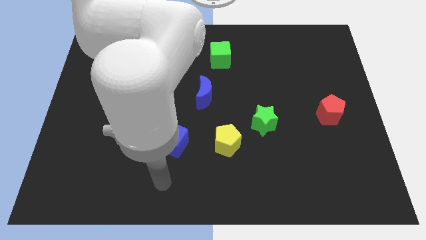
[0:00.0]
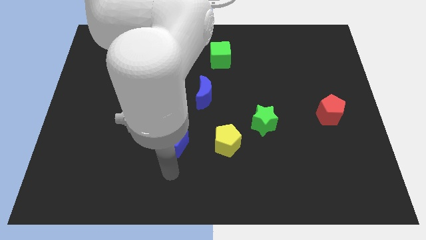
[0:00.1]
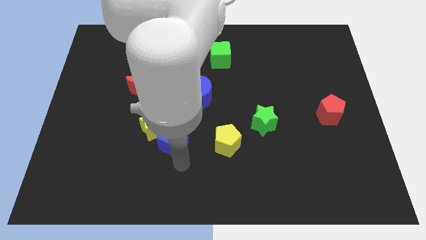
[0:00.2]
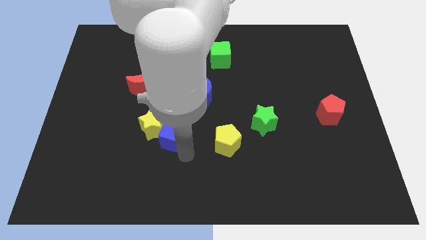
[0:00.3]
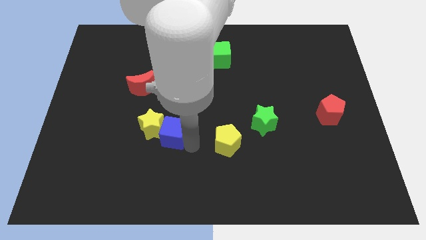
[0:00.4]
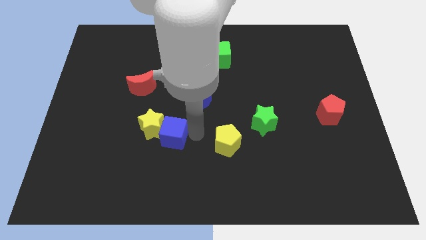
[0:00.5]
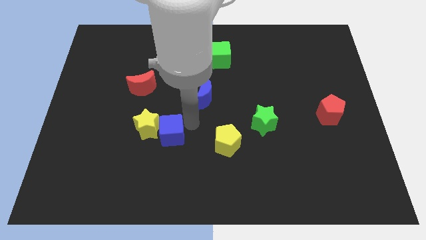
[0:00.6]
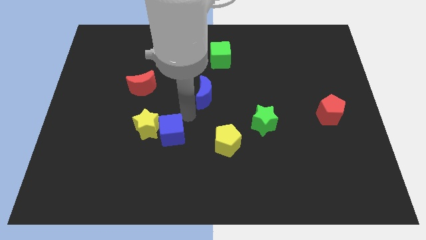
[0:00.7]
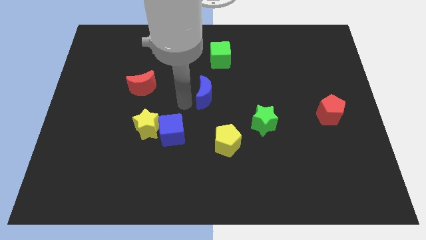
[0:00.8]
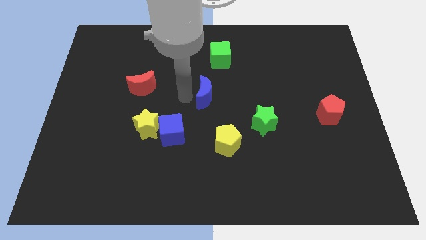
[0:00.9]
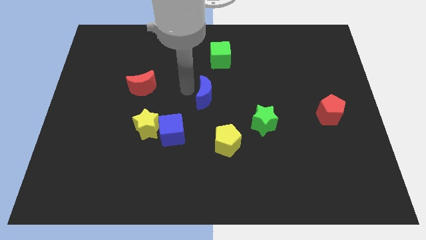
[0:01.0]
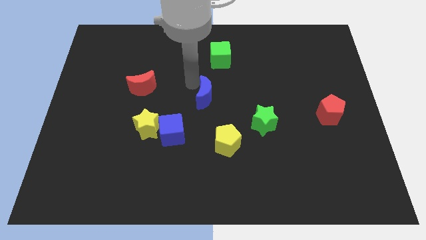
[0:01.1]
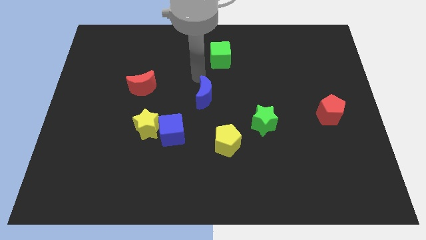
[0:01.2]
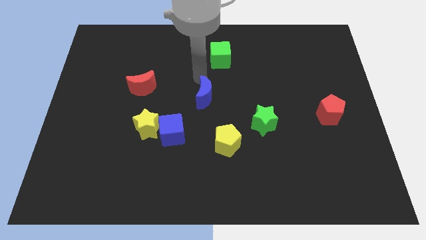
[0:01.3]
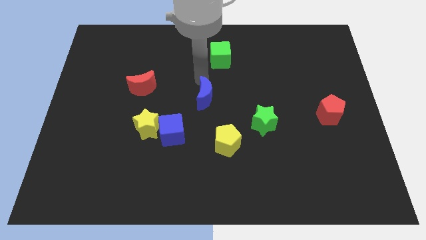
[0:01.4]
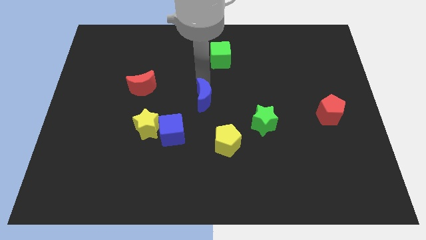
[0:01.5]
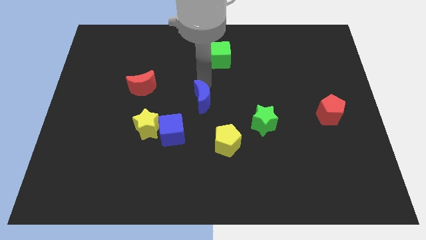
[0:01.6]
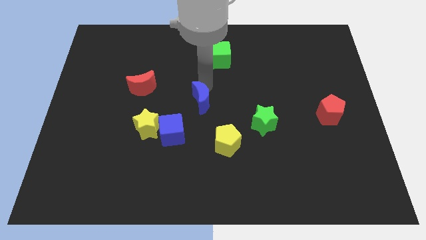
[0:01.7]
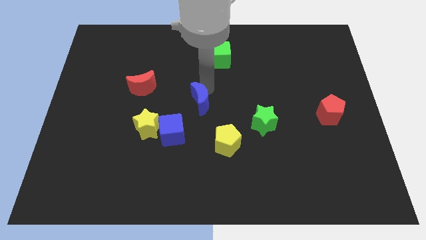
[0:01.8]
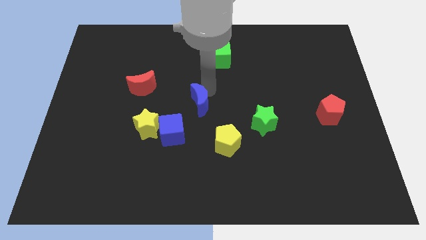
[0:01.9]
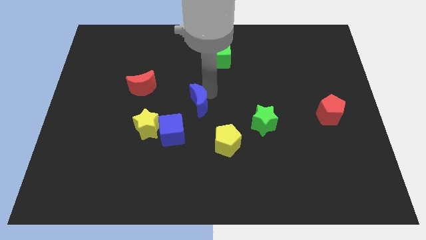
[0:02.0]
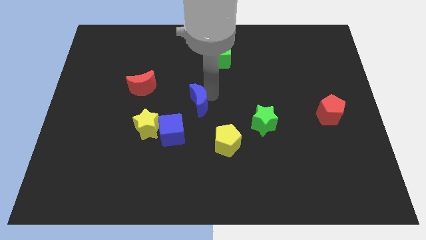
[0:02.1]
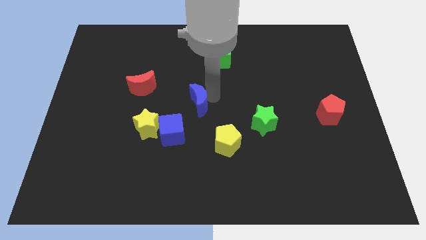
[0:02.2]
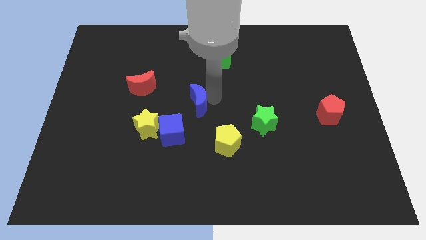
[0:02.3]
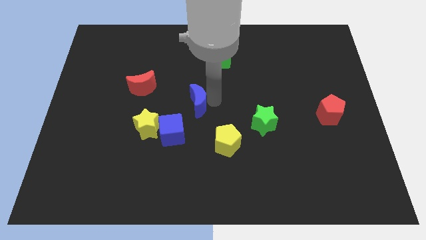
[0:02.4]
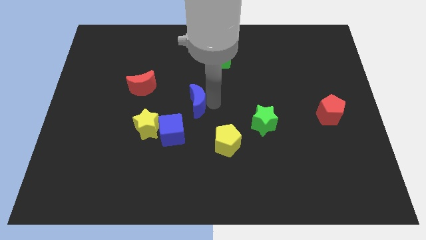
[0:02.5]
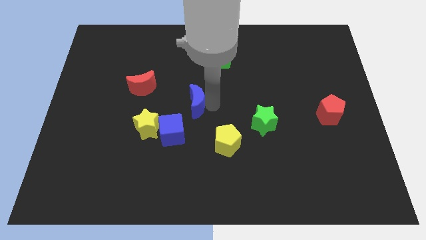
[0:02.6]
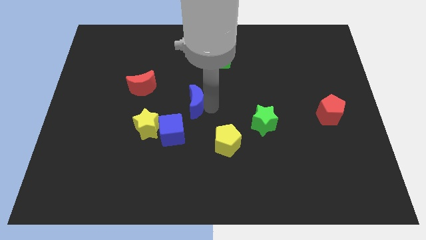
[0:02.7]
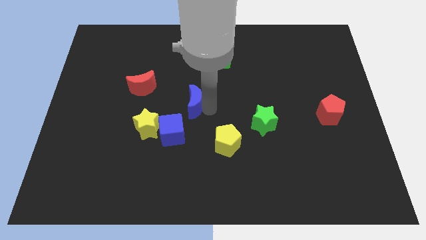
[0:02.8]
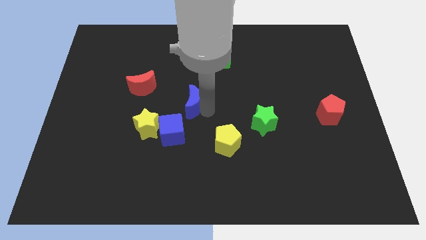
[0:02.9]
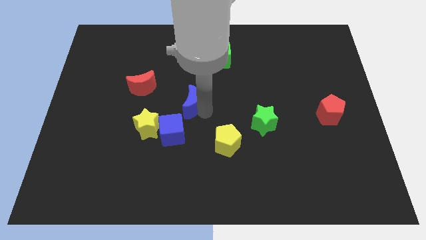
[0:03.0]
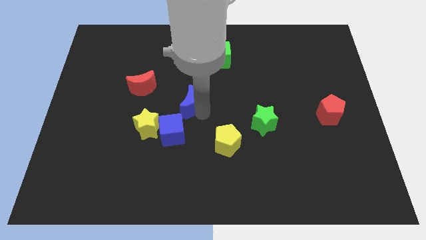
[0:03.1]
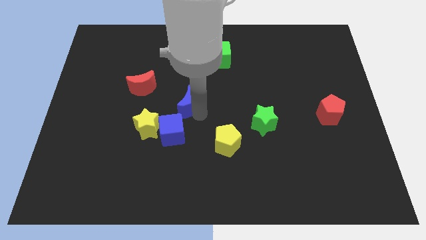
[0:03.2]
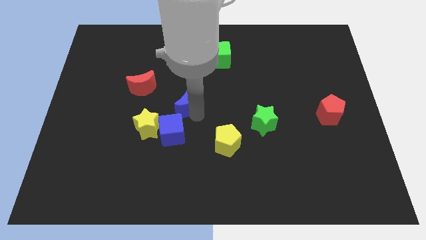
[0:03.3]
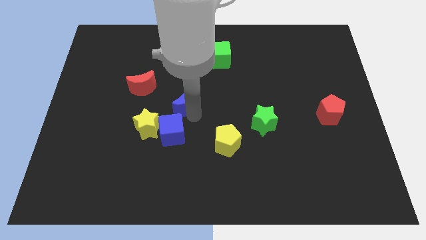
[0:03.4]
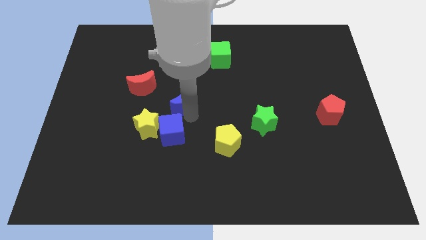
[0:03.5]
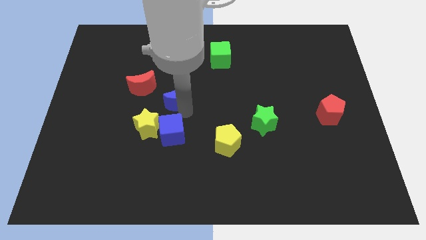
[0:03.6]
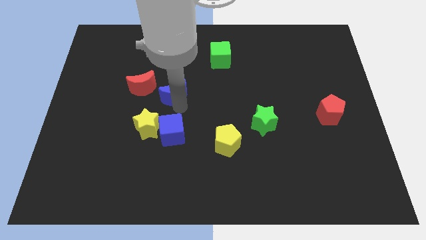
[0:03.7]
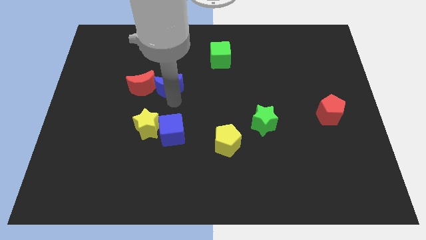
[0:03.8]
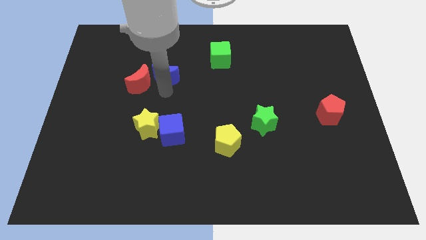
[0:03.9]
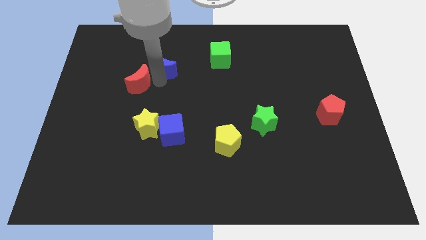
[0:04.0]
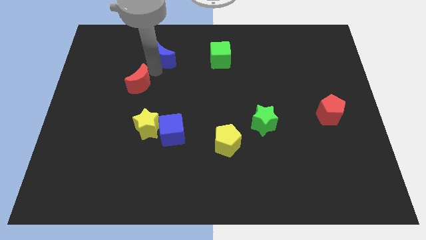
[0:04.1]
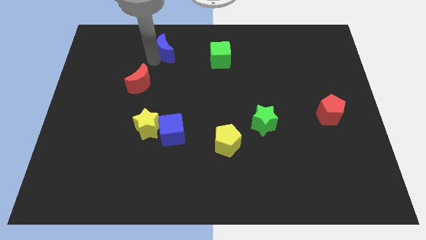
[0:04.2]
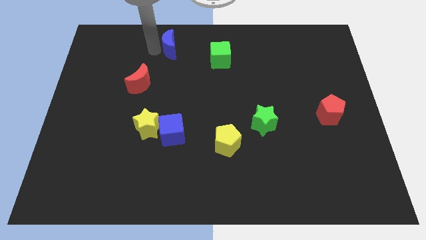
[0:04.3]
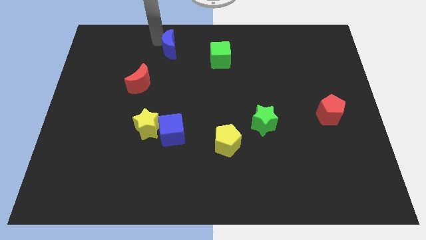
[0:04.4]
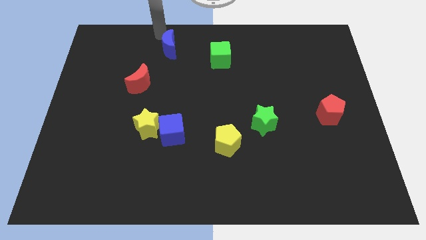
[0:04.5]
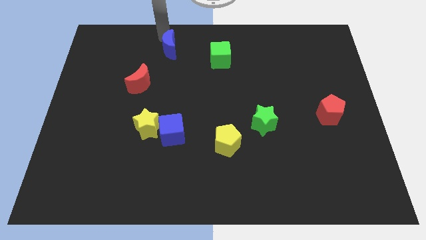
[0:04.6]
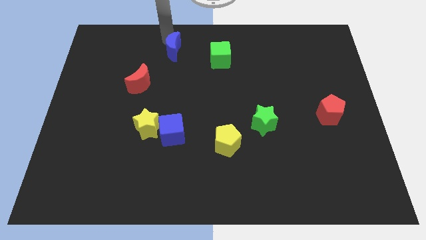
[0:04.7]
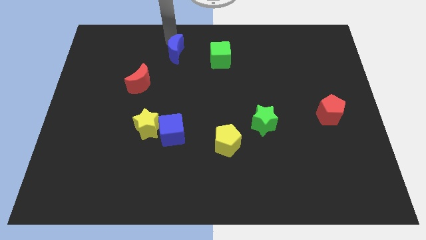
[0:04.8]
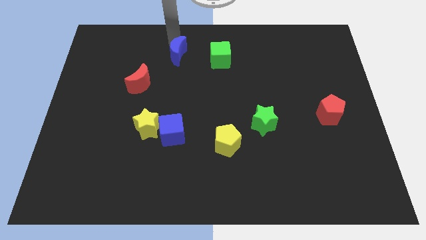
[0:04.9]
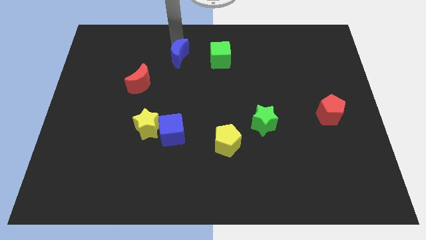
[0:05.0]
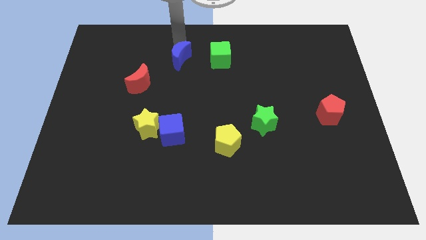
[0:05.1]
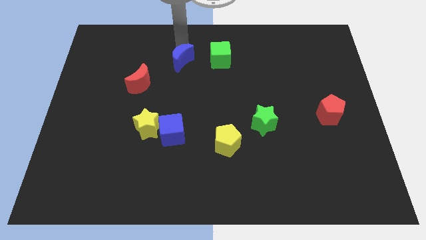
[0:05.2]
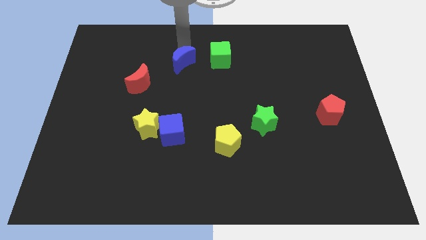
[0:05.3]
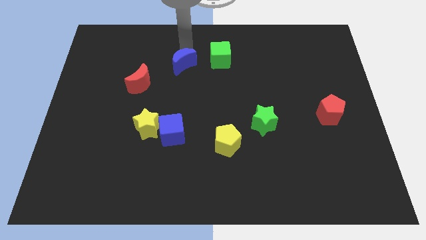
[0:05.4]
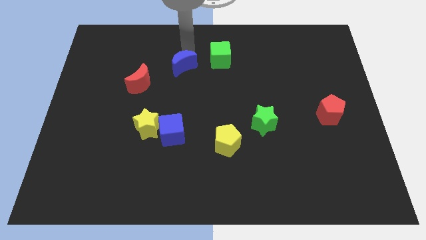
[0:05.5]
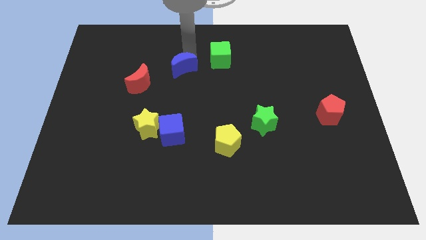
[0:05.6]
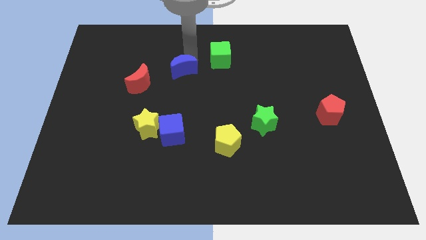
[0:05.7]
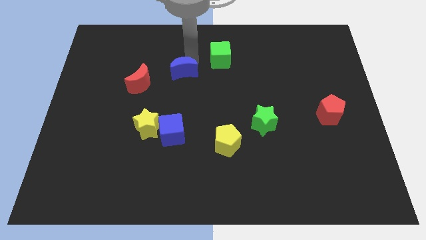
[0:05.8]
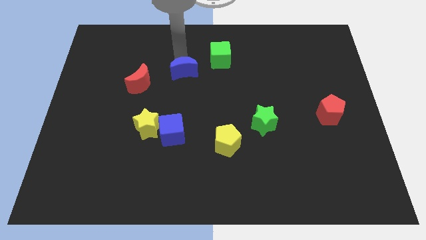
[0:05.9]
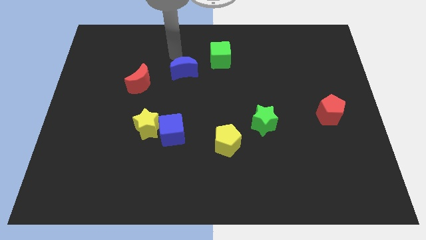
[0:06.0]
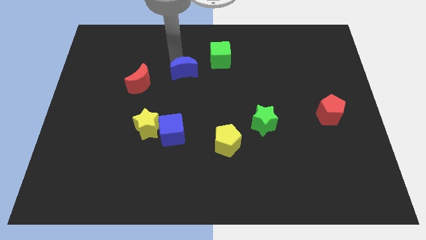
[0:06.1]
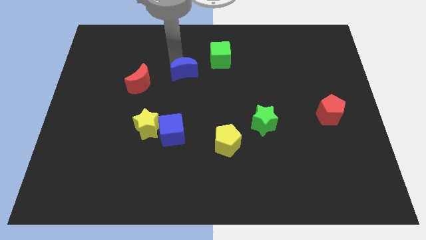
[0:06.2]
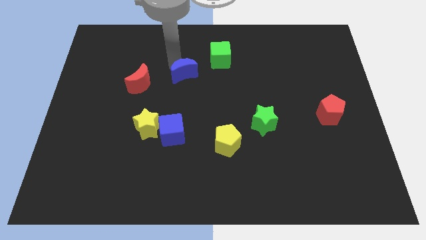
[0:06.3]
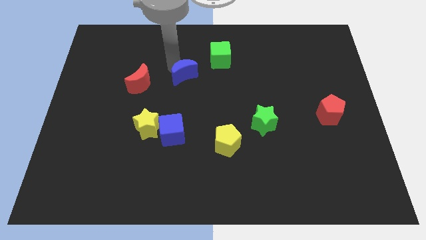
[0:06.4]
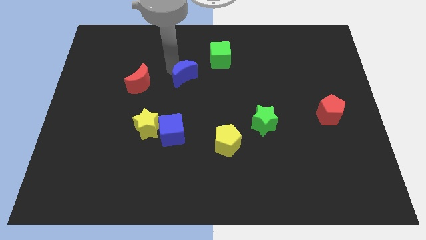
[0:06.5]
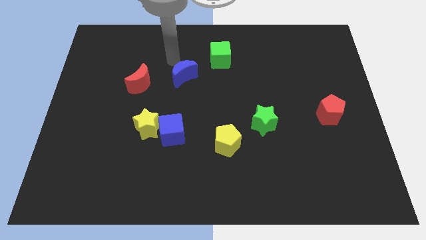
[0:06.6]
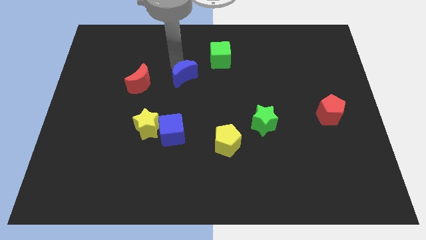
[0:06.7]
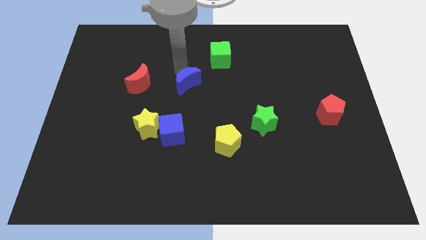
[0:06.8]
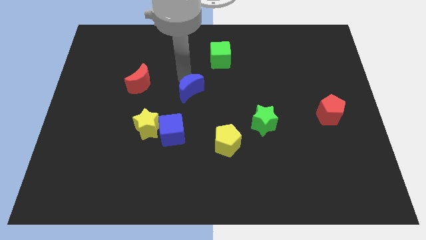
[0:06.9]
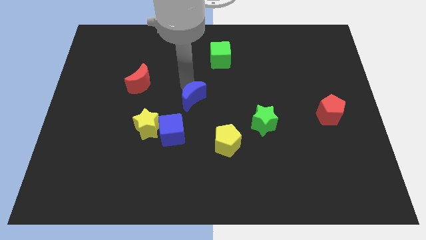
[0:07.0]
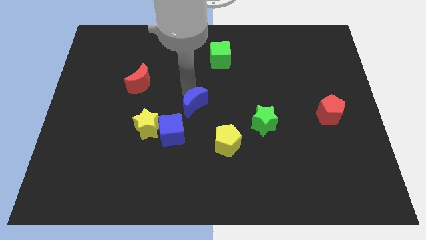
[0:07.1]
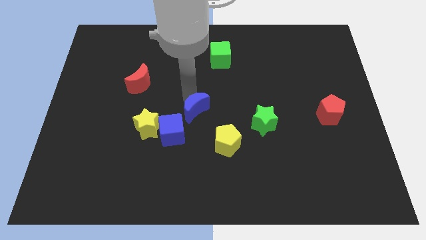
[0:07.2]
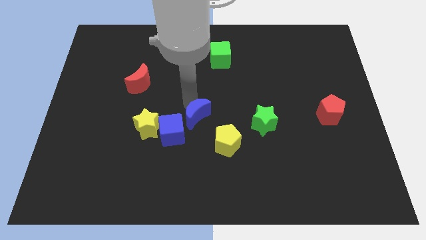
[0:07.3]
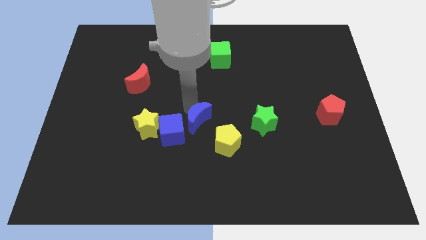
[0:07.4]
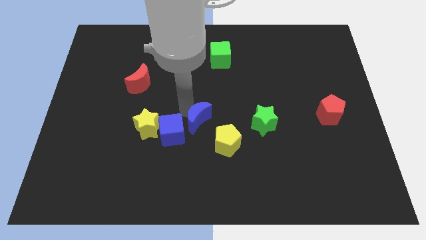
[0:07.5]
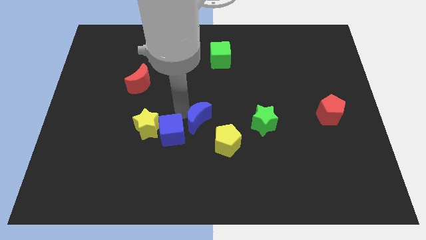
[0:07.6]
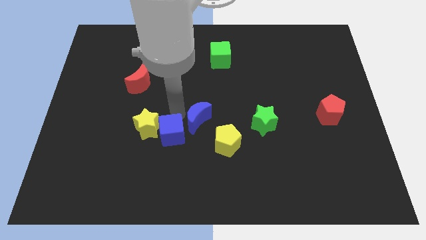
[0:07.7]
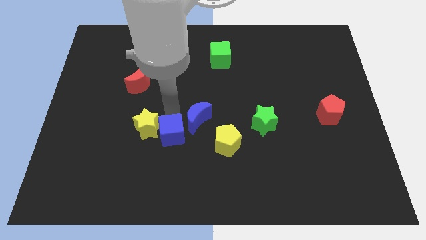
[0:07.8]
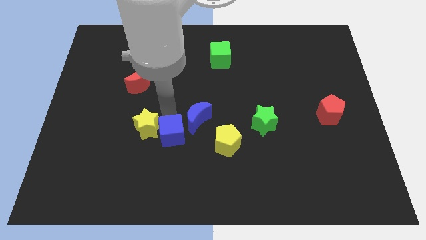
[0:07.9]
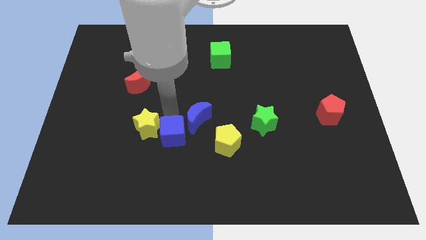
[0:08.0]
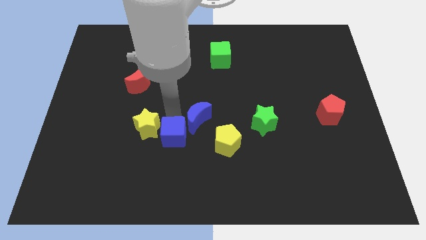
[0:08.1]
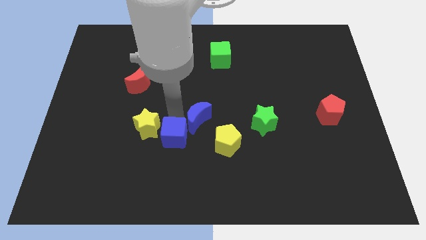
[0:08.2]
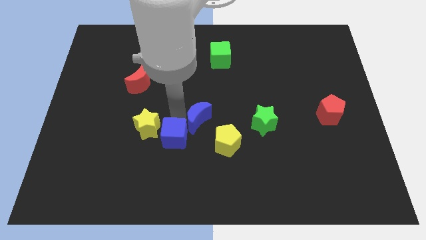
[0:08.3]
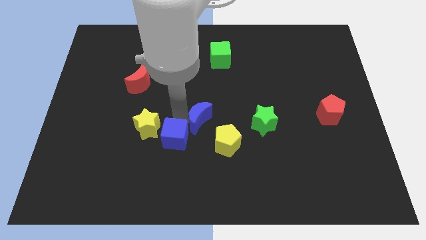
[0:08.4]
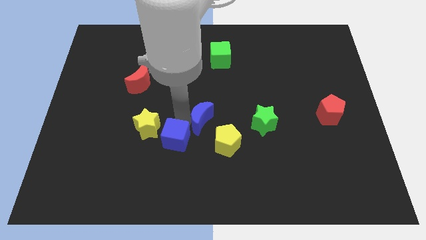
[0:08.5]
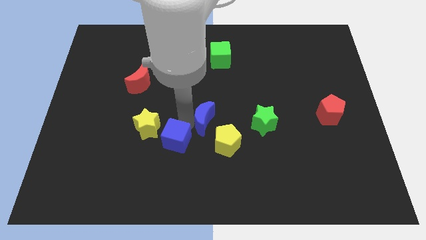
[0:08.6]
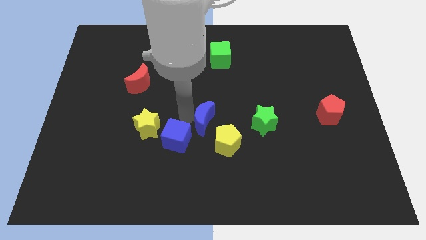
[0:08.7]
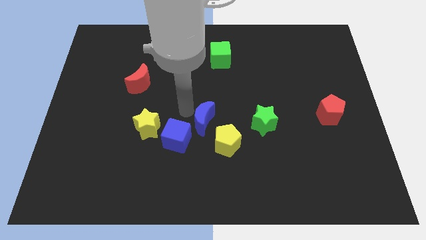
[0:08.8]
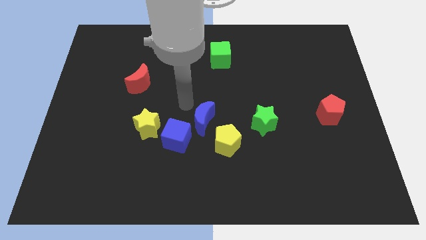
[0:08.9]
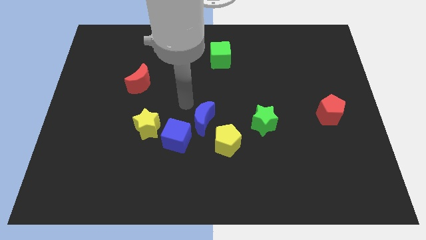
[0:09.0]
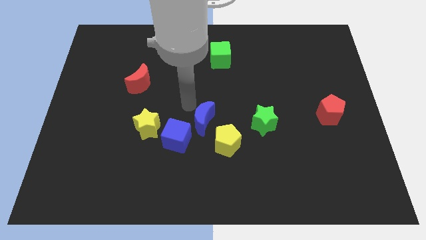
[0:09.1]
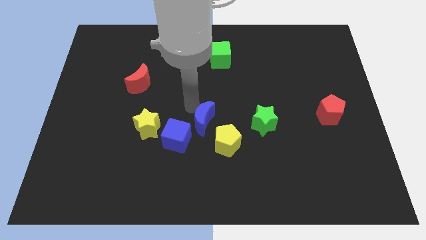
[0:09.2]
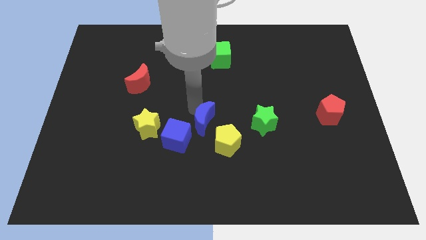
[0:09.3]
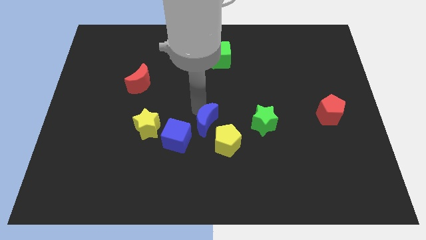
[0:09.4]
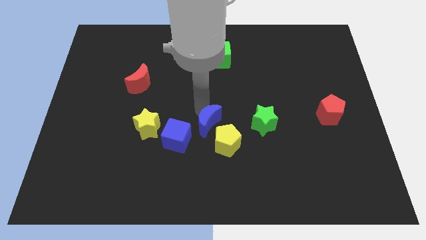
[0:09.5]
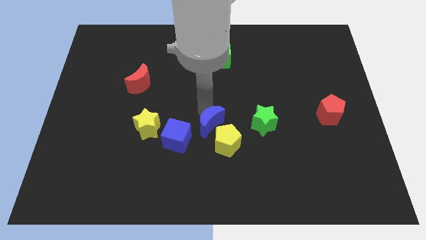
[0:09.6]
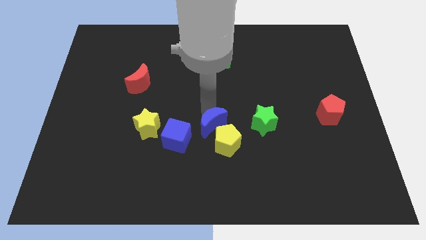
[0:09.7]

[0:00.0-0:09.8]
move the blue moon to the yellow pentagon
